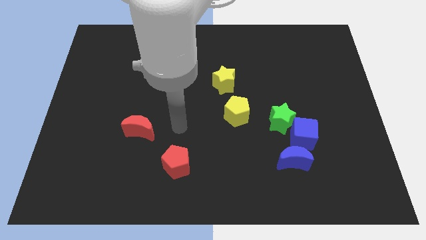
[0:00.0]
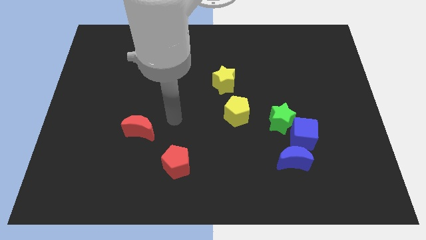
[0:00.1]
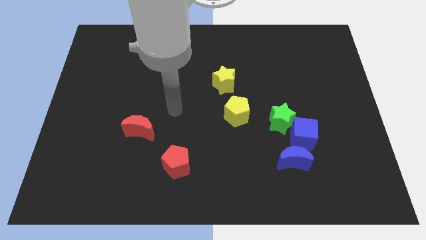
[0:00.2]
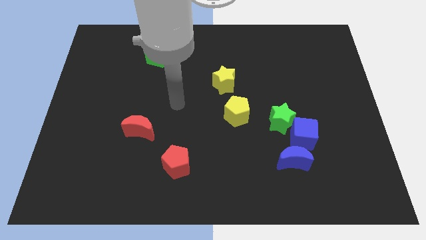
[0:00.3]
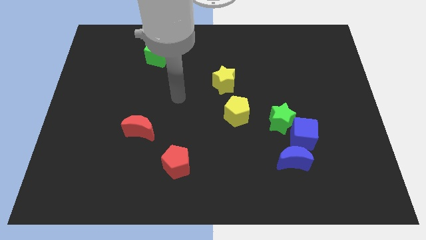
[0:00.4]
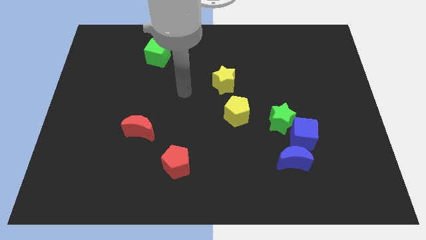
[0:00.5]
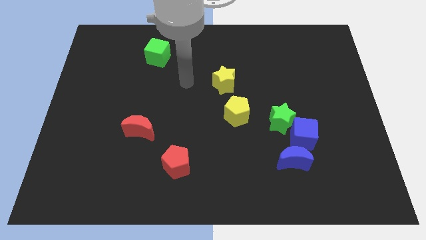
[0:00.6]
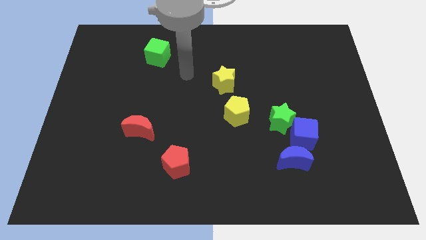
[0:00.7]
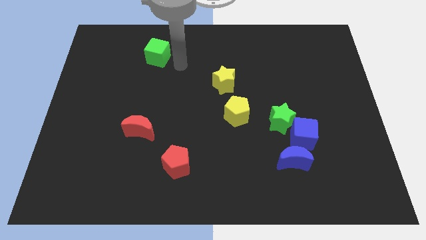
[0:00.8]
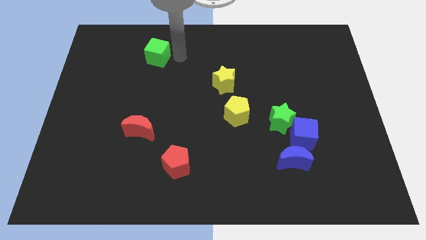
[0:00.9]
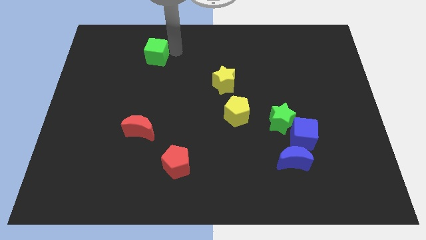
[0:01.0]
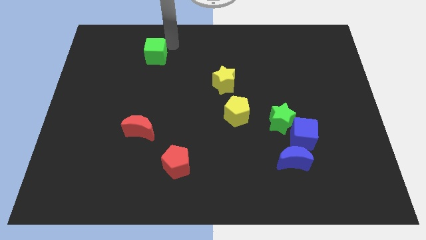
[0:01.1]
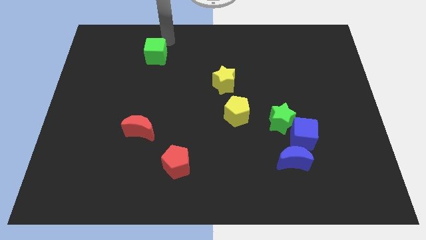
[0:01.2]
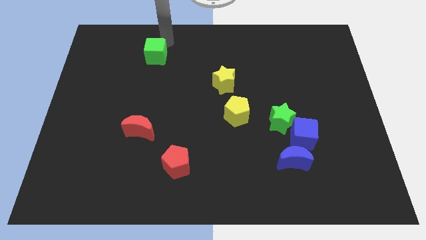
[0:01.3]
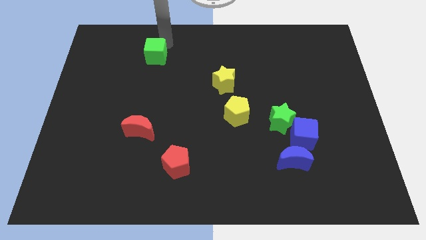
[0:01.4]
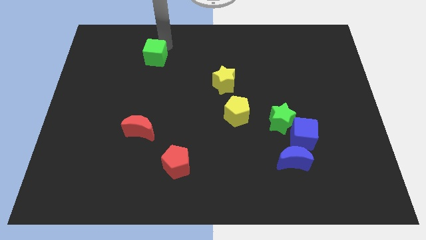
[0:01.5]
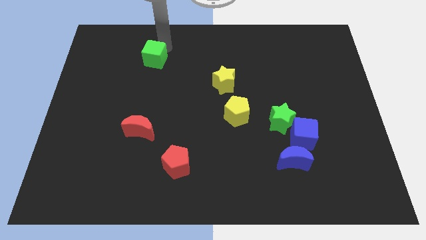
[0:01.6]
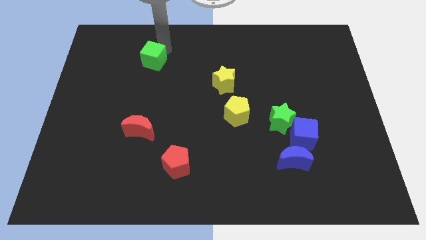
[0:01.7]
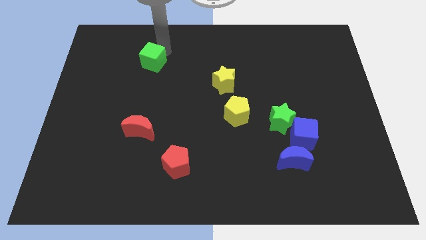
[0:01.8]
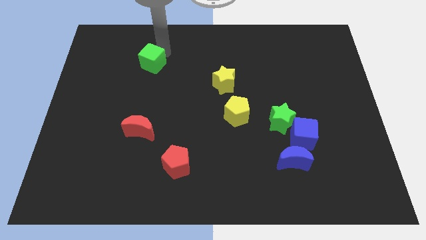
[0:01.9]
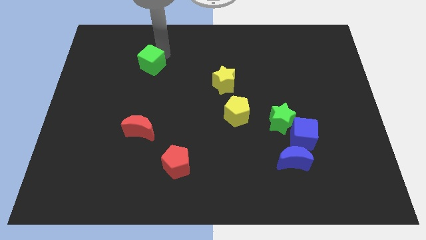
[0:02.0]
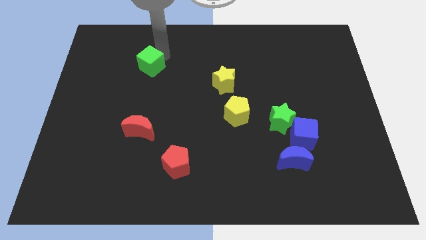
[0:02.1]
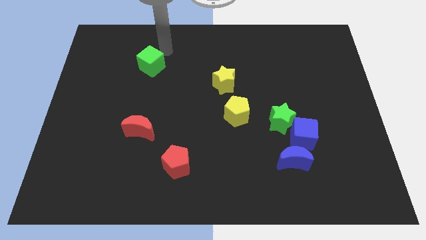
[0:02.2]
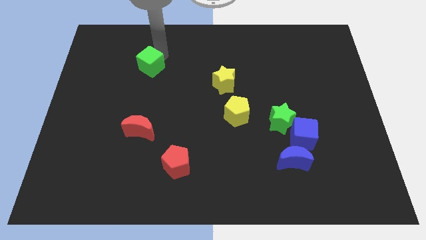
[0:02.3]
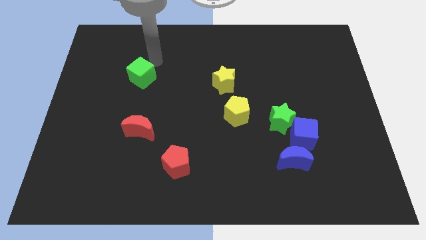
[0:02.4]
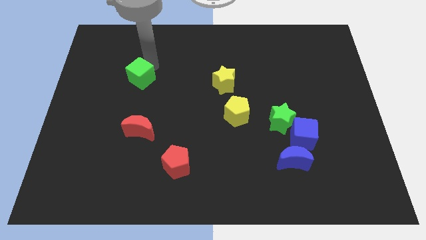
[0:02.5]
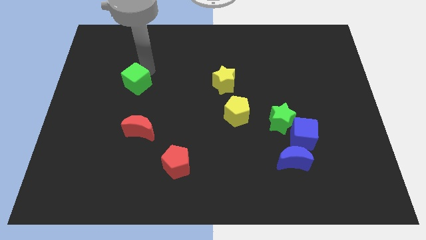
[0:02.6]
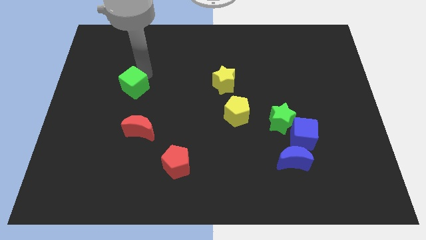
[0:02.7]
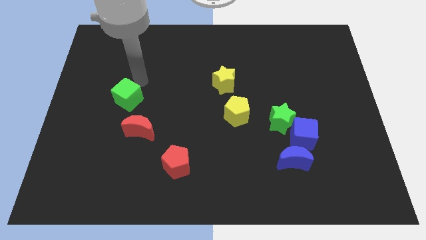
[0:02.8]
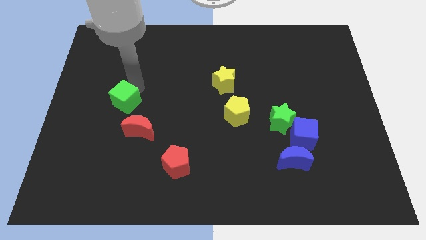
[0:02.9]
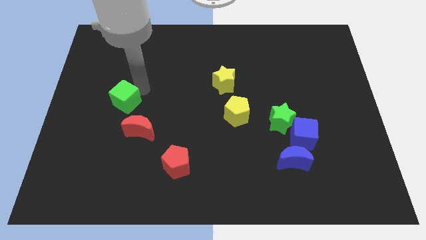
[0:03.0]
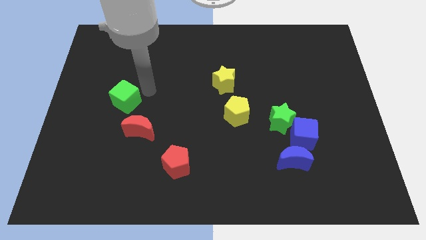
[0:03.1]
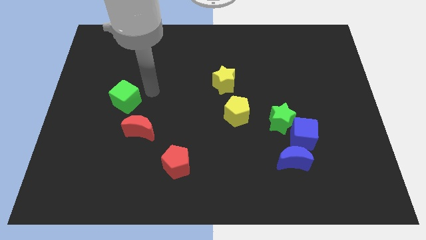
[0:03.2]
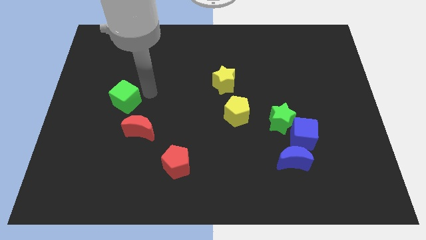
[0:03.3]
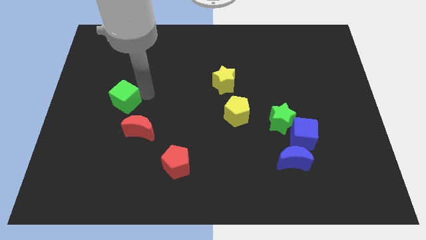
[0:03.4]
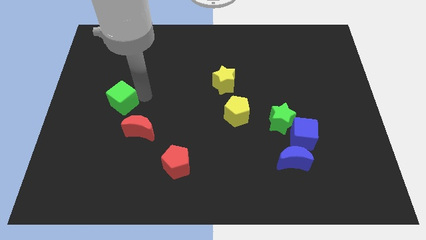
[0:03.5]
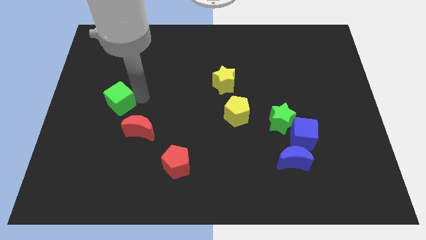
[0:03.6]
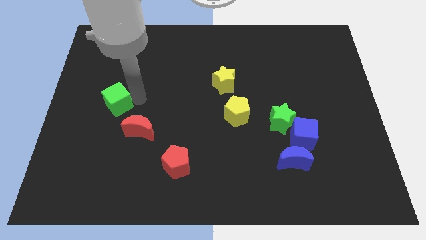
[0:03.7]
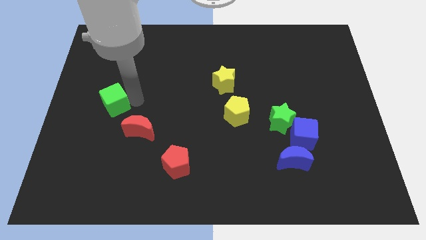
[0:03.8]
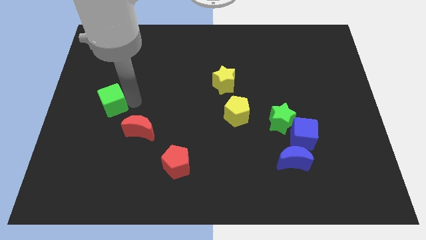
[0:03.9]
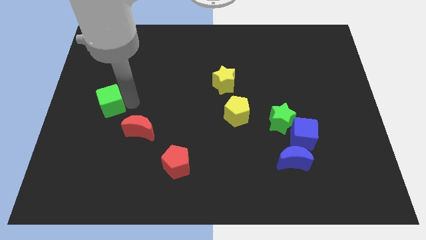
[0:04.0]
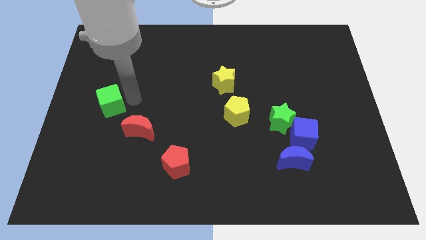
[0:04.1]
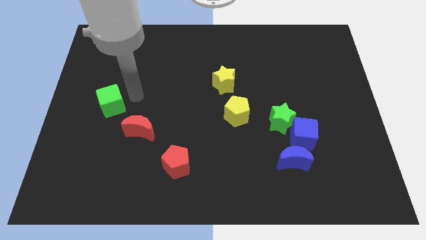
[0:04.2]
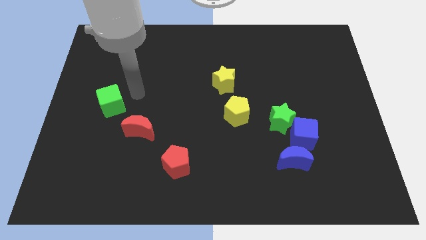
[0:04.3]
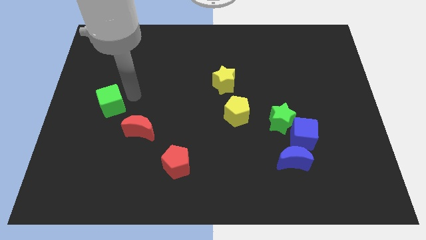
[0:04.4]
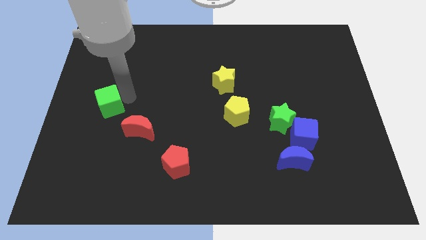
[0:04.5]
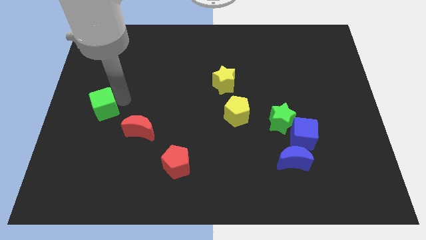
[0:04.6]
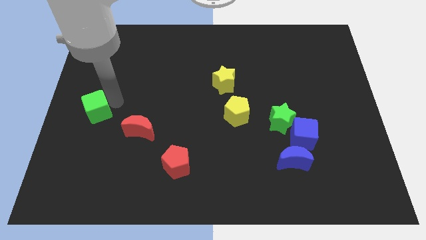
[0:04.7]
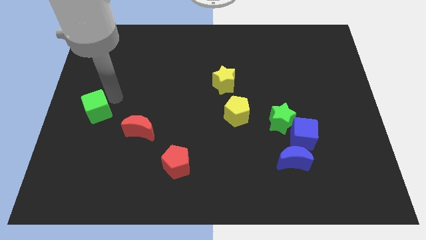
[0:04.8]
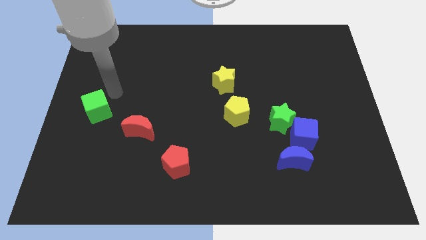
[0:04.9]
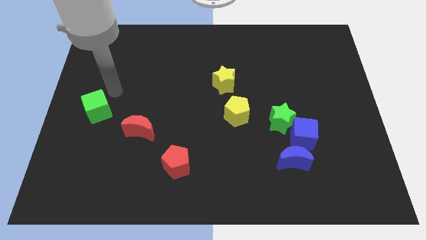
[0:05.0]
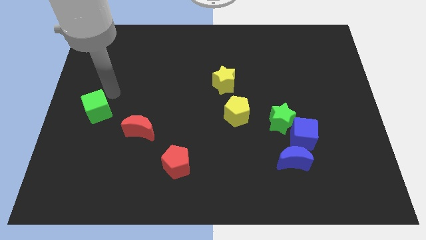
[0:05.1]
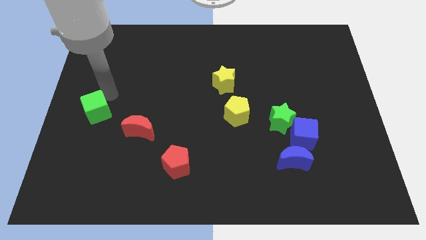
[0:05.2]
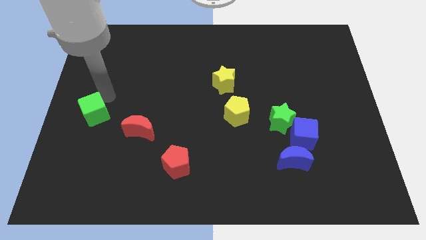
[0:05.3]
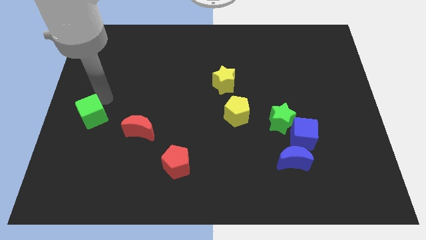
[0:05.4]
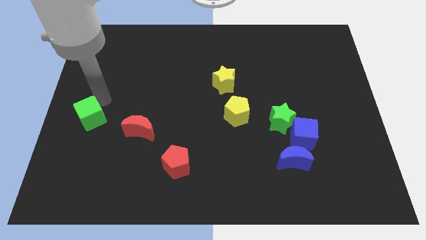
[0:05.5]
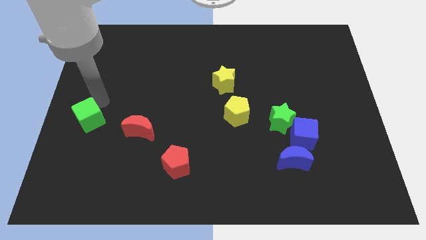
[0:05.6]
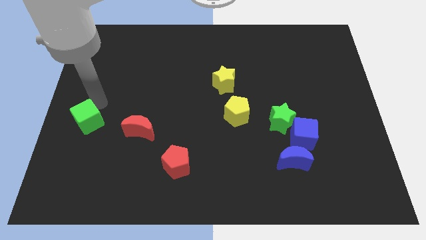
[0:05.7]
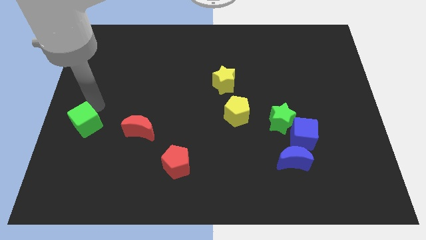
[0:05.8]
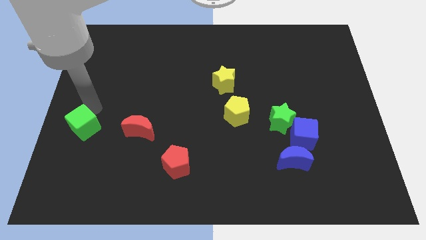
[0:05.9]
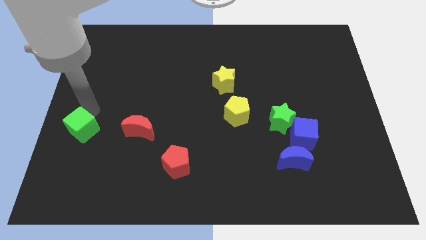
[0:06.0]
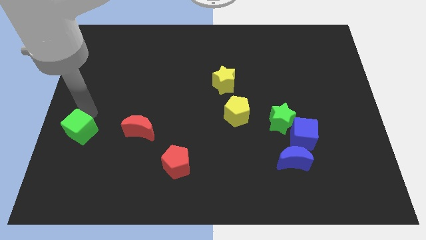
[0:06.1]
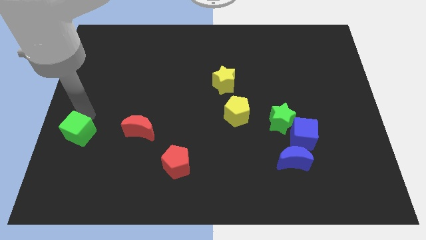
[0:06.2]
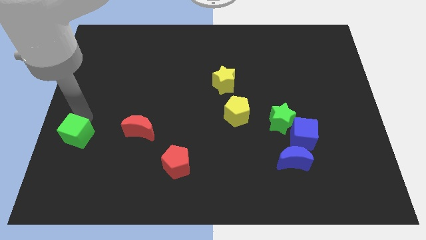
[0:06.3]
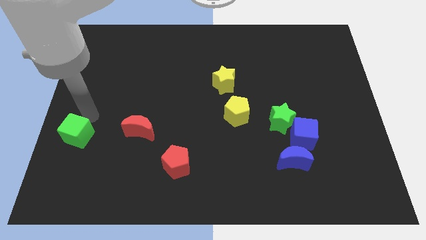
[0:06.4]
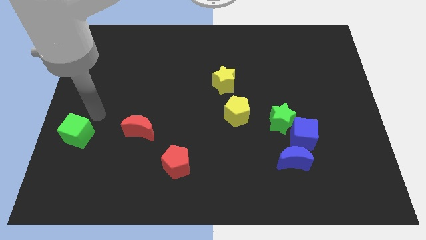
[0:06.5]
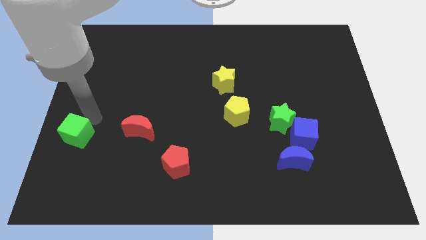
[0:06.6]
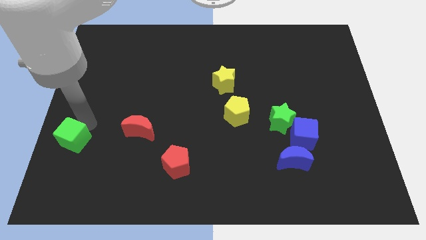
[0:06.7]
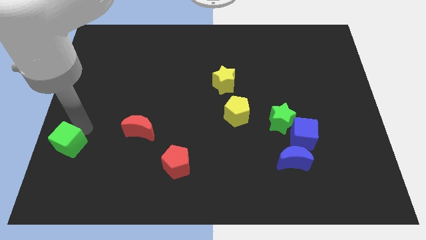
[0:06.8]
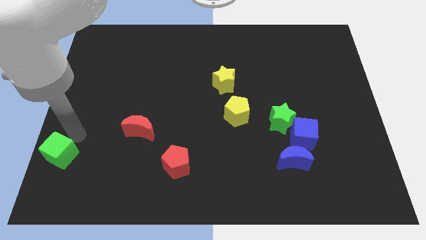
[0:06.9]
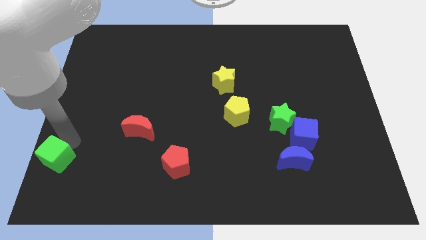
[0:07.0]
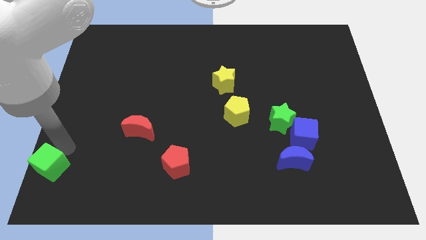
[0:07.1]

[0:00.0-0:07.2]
put the green cube to the bottom left corner

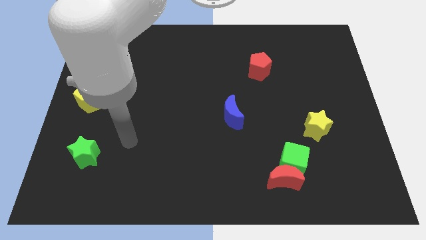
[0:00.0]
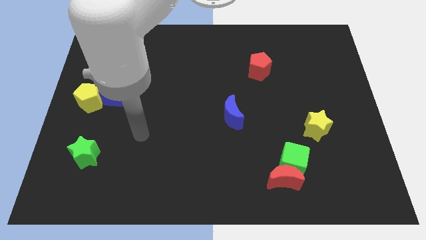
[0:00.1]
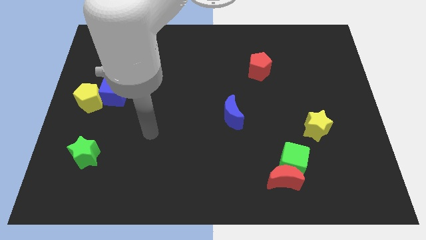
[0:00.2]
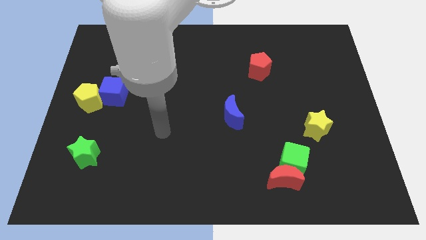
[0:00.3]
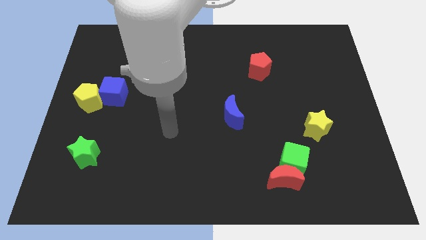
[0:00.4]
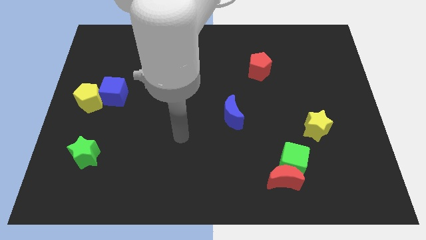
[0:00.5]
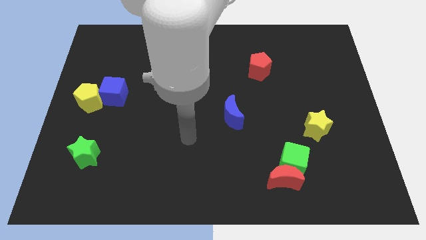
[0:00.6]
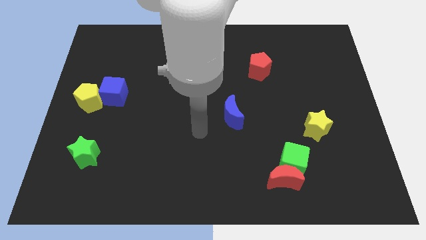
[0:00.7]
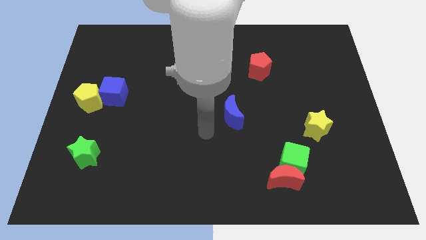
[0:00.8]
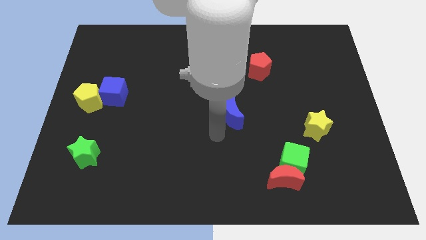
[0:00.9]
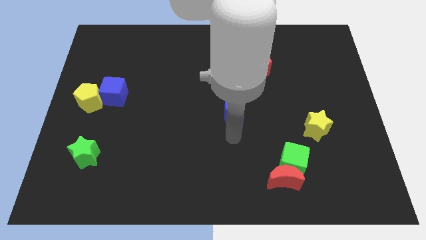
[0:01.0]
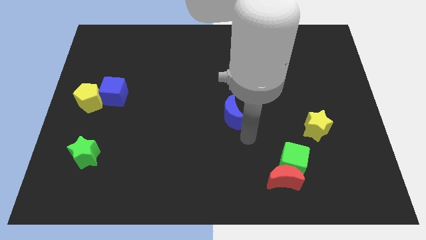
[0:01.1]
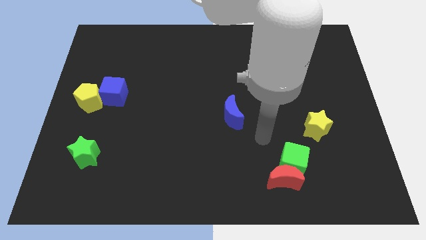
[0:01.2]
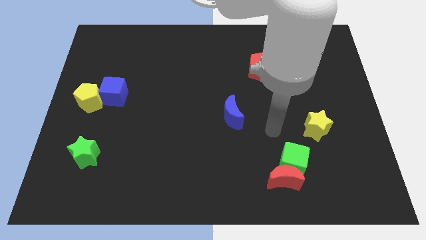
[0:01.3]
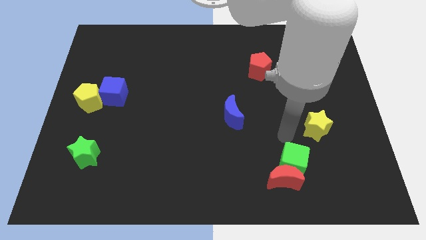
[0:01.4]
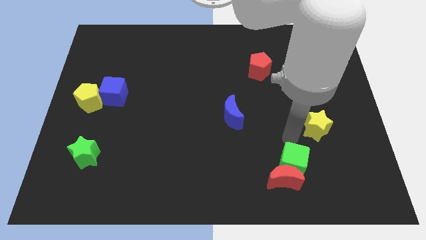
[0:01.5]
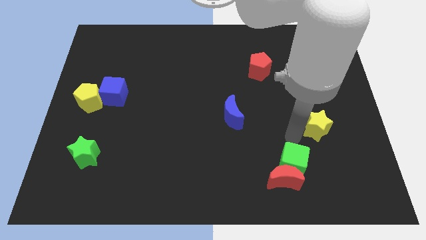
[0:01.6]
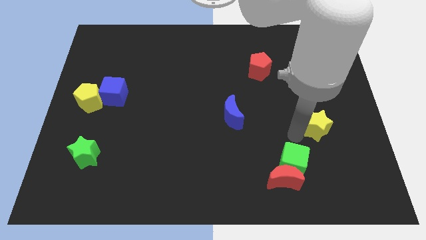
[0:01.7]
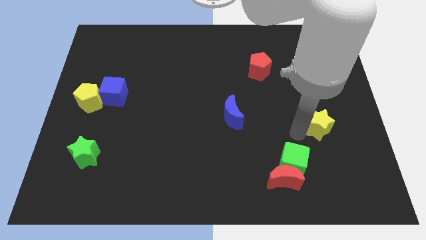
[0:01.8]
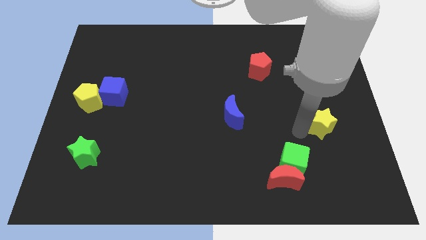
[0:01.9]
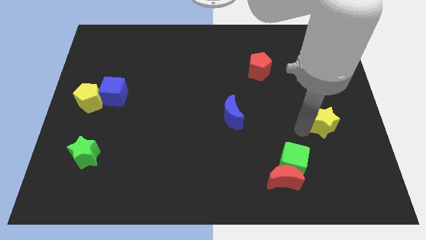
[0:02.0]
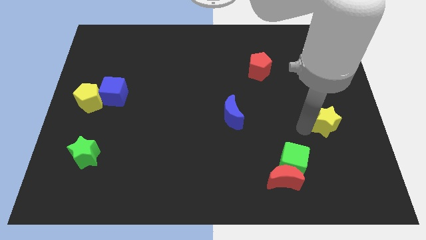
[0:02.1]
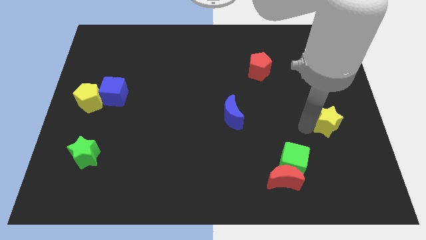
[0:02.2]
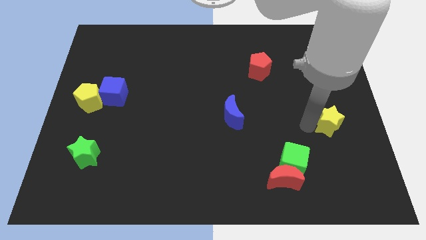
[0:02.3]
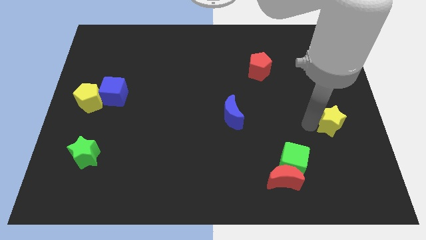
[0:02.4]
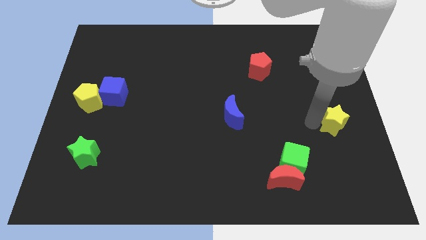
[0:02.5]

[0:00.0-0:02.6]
push the yellow star to the right side
